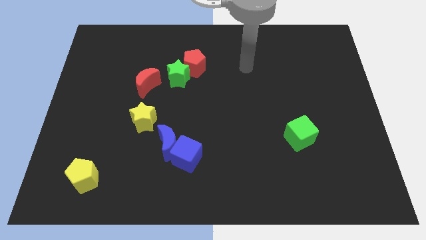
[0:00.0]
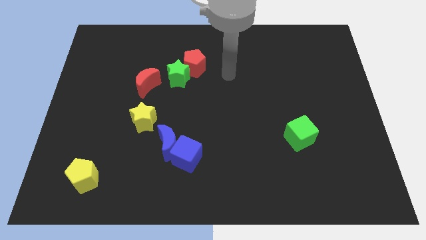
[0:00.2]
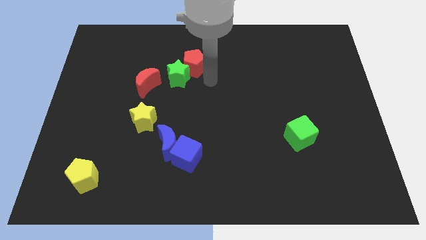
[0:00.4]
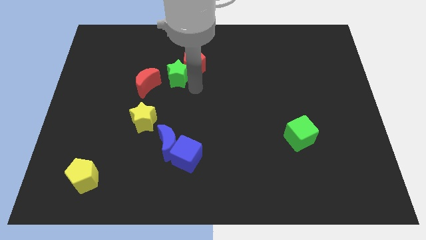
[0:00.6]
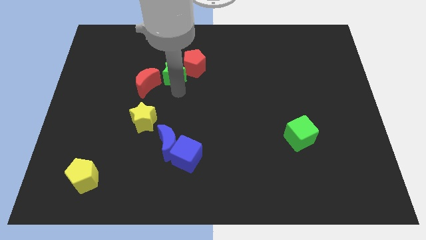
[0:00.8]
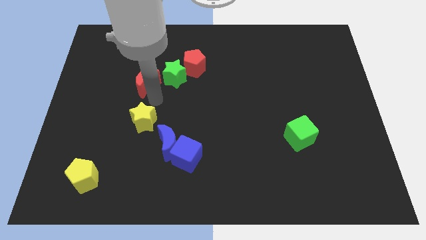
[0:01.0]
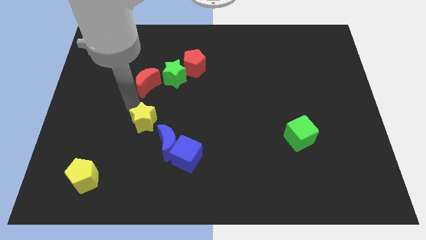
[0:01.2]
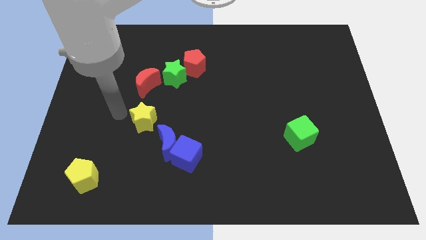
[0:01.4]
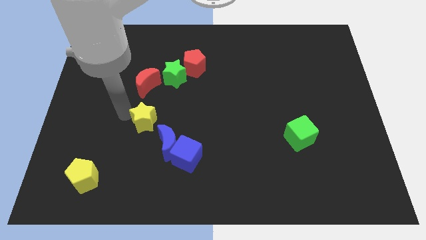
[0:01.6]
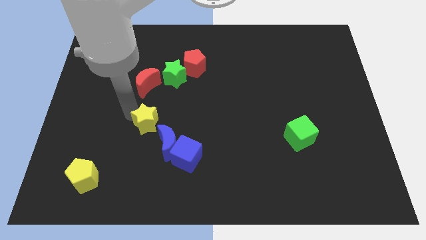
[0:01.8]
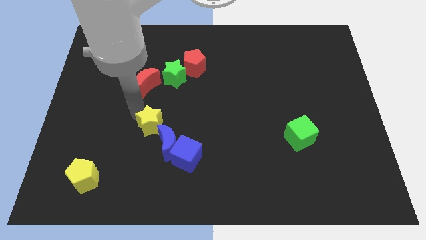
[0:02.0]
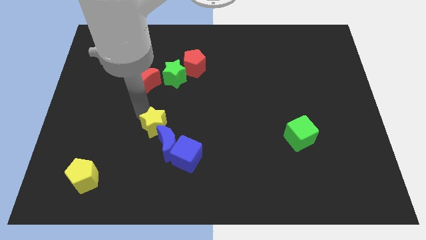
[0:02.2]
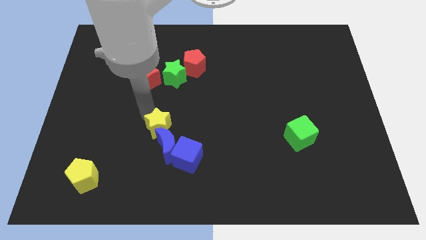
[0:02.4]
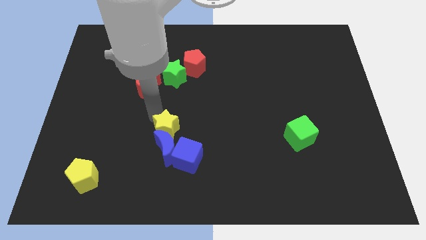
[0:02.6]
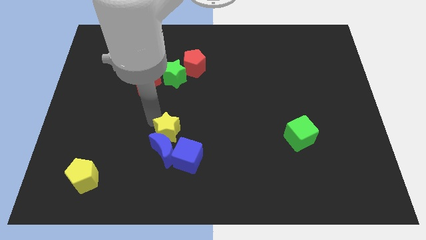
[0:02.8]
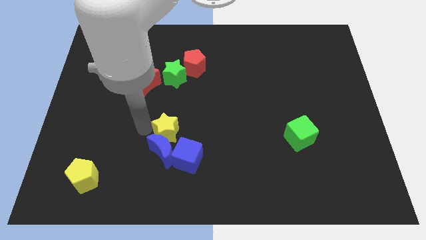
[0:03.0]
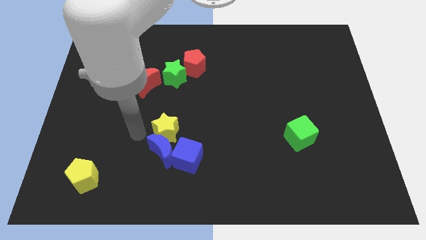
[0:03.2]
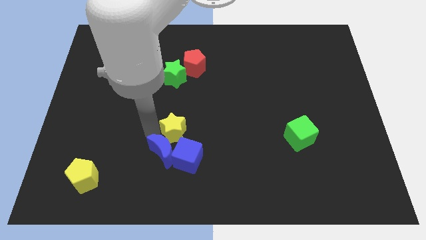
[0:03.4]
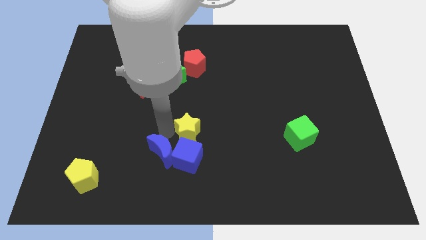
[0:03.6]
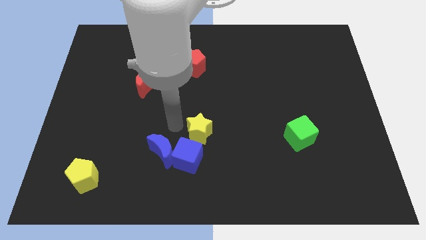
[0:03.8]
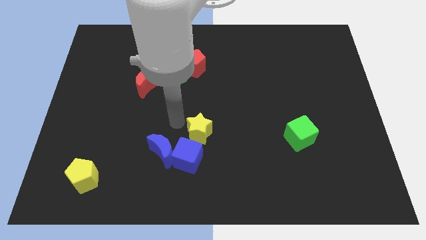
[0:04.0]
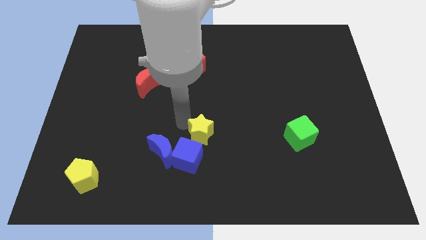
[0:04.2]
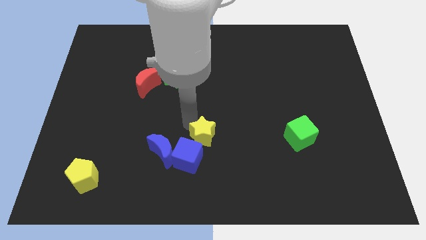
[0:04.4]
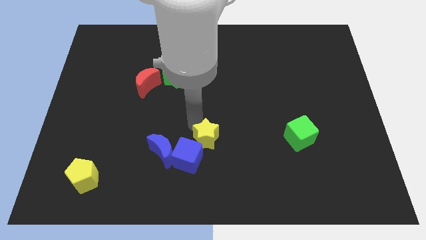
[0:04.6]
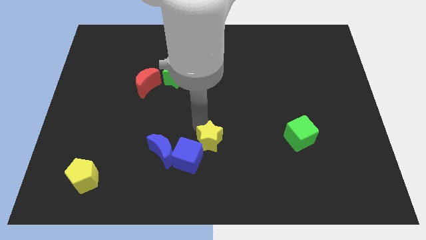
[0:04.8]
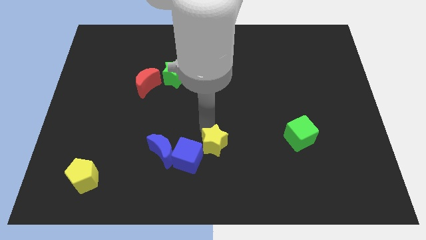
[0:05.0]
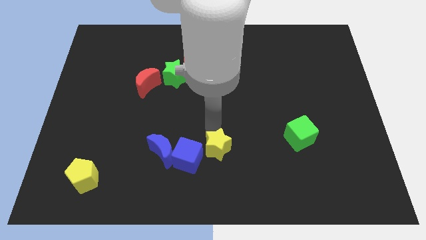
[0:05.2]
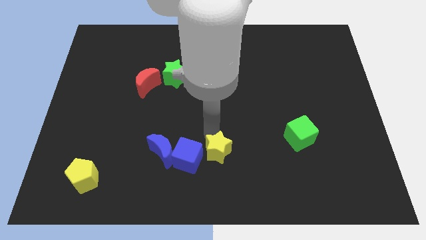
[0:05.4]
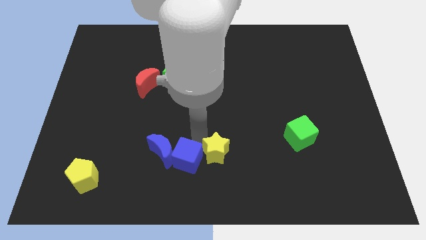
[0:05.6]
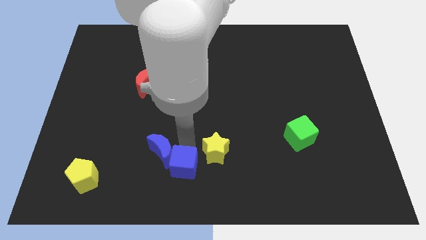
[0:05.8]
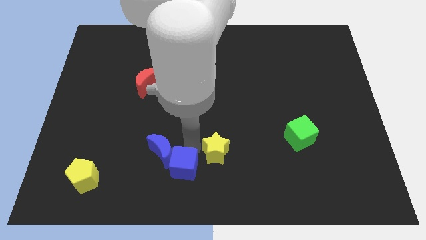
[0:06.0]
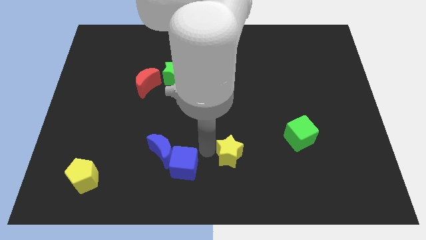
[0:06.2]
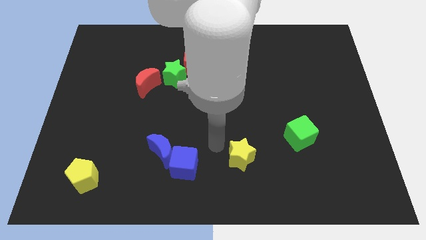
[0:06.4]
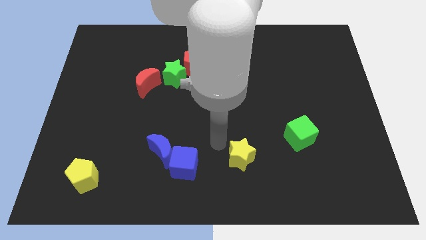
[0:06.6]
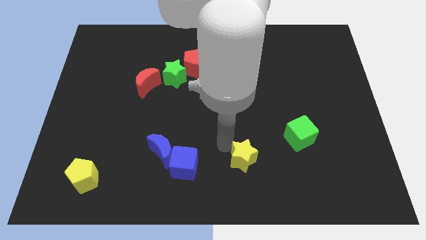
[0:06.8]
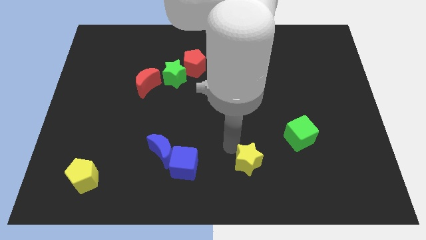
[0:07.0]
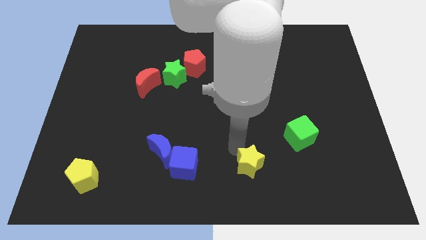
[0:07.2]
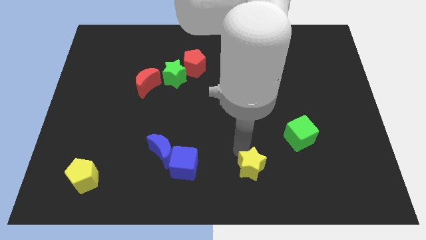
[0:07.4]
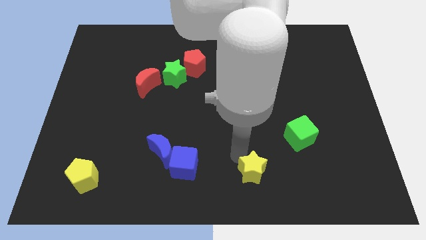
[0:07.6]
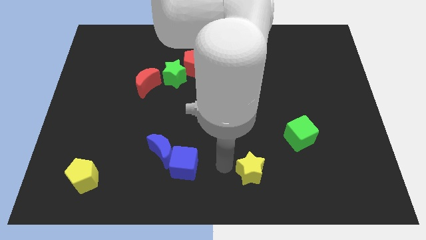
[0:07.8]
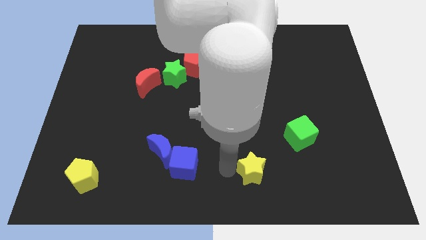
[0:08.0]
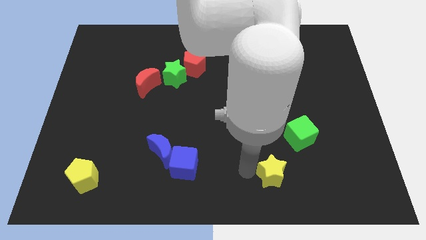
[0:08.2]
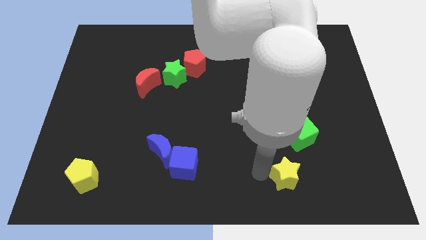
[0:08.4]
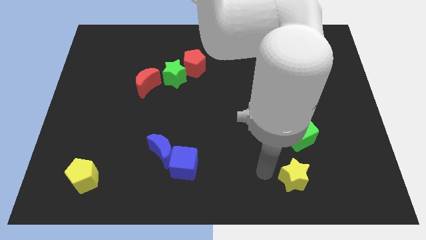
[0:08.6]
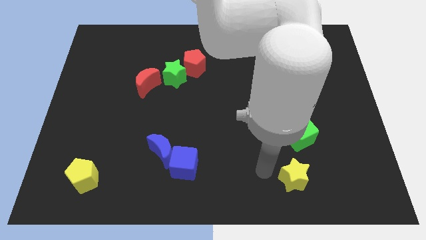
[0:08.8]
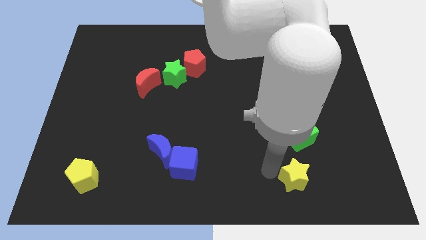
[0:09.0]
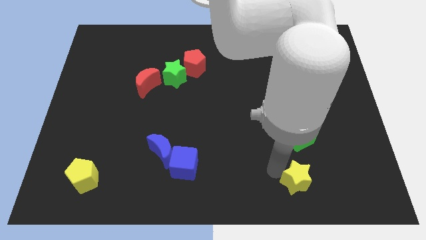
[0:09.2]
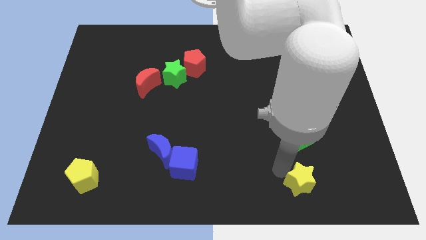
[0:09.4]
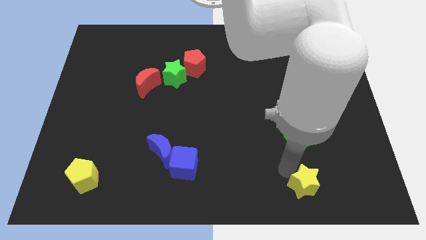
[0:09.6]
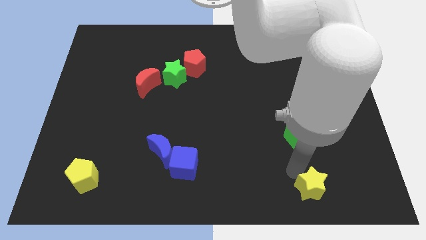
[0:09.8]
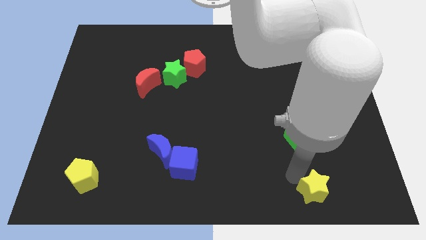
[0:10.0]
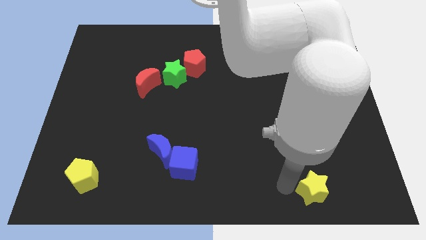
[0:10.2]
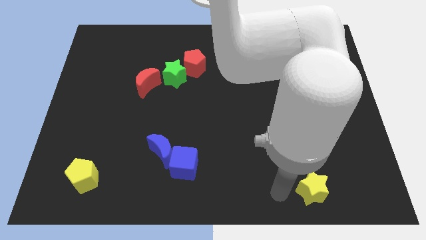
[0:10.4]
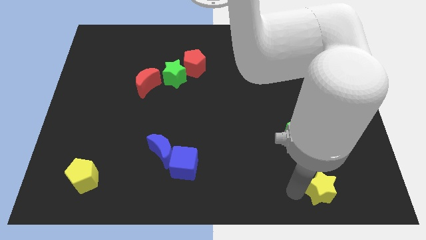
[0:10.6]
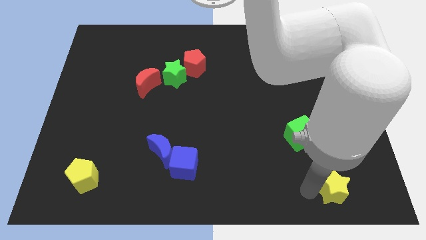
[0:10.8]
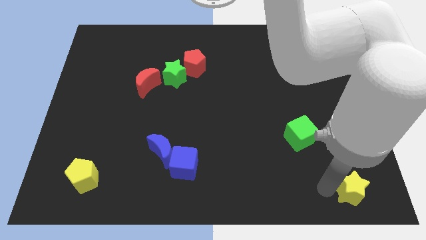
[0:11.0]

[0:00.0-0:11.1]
move the yellow star to the bottom right corner

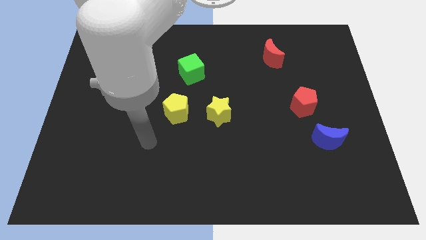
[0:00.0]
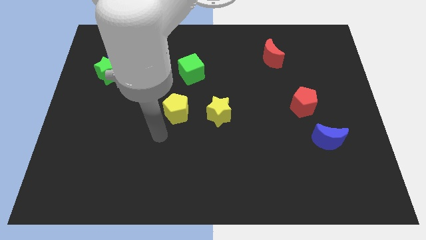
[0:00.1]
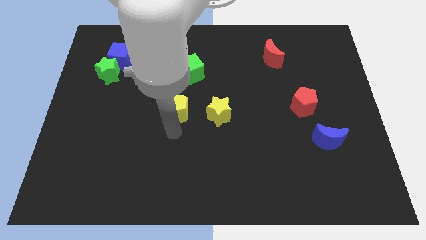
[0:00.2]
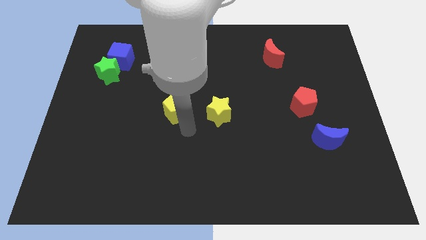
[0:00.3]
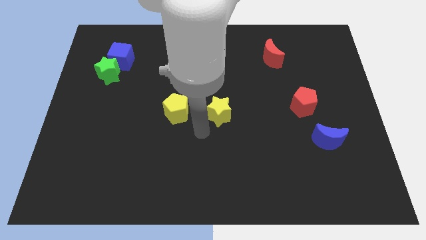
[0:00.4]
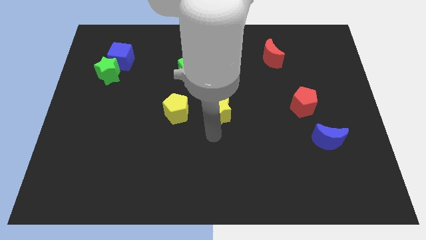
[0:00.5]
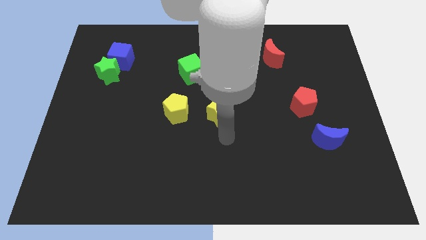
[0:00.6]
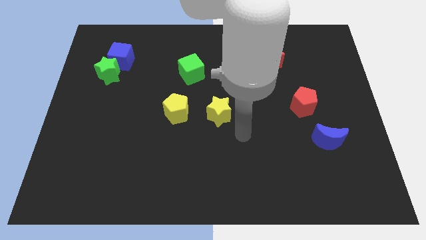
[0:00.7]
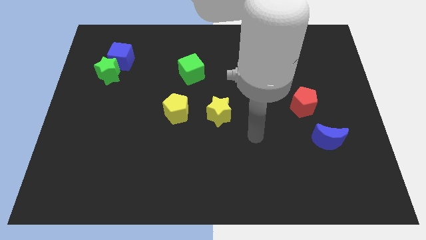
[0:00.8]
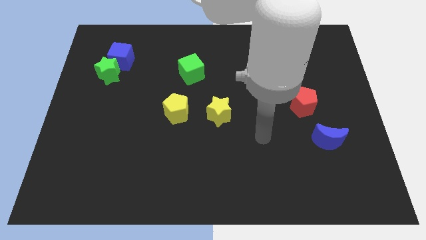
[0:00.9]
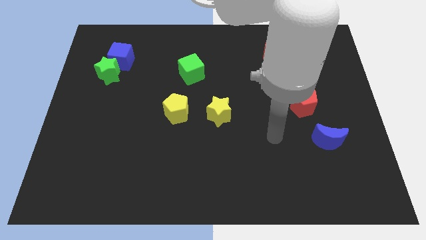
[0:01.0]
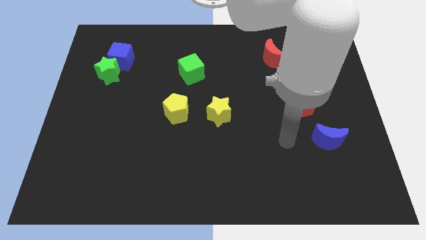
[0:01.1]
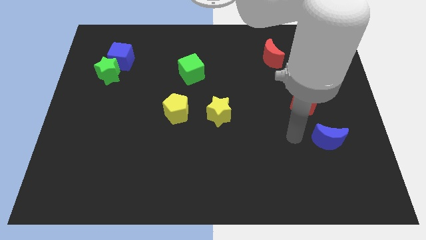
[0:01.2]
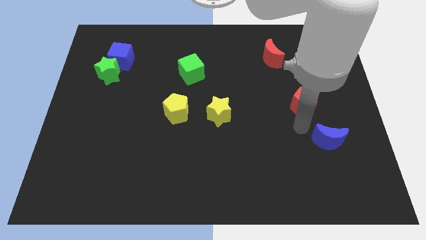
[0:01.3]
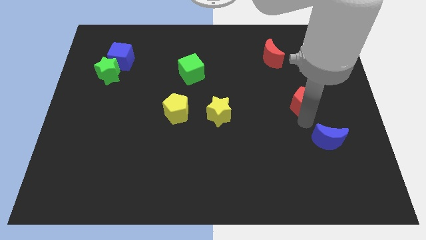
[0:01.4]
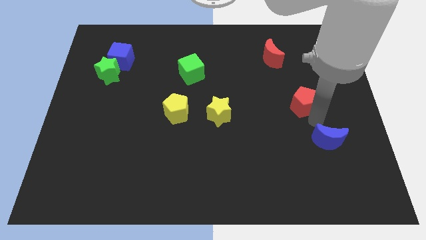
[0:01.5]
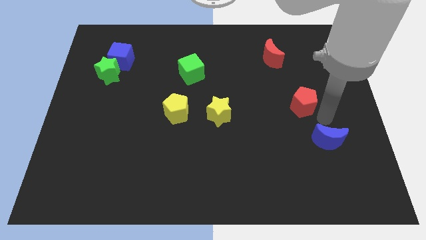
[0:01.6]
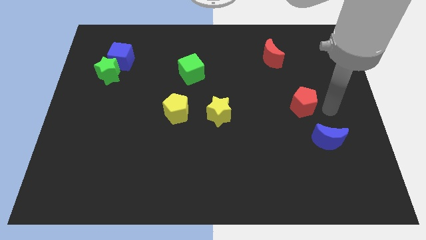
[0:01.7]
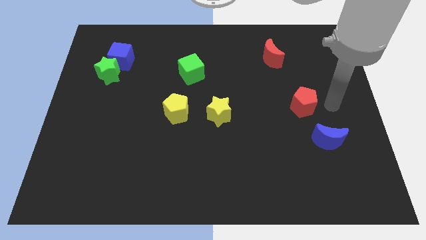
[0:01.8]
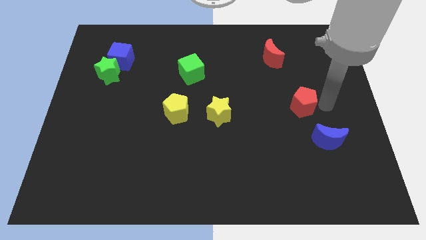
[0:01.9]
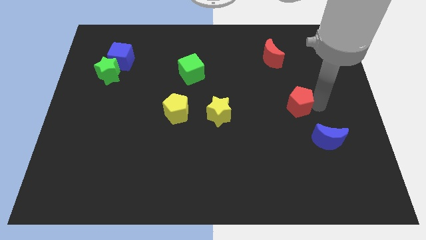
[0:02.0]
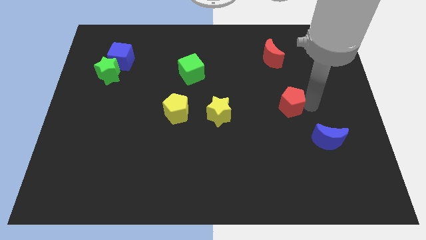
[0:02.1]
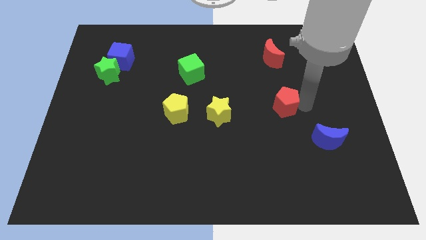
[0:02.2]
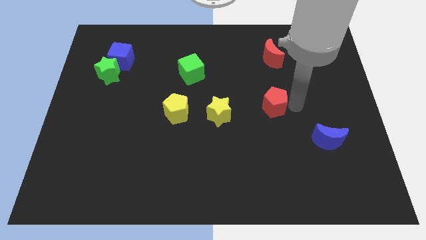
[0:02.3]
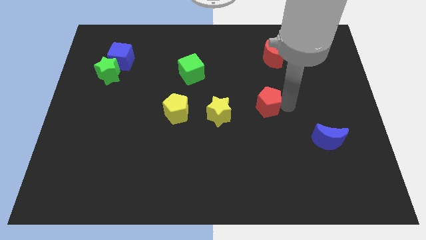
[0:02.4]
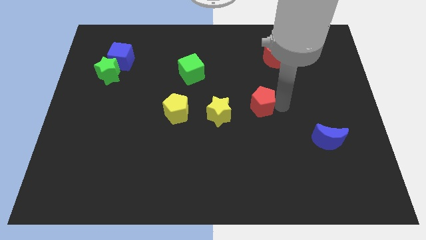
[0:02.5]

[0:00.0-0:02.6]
slide the red pentagon to the center

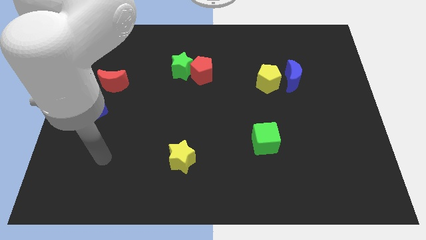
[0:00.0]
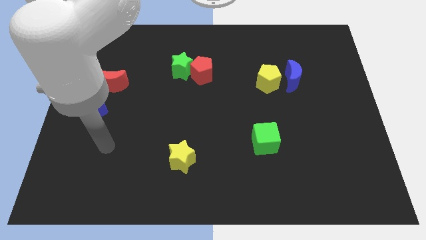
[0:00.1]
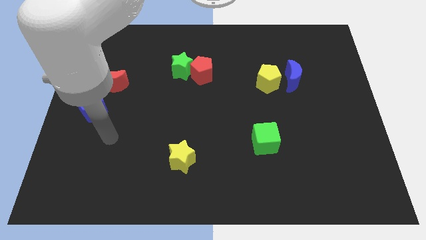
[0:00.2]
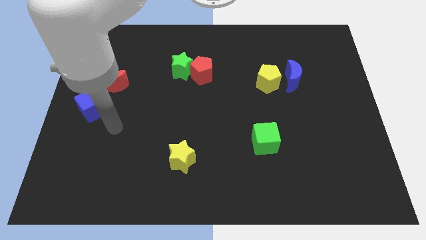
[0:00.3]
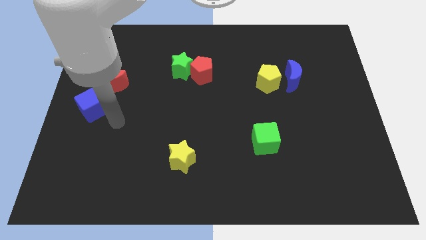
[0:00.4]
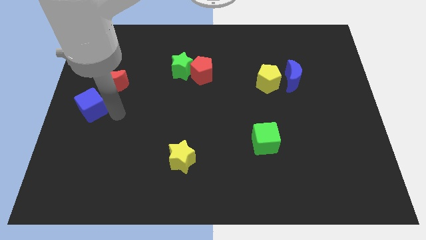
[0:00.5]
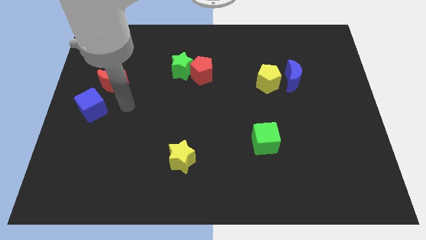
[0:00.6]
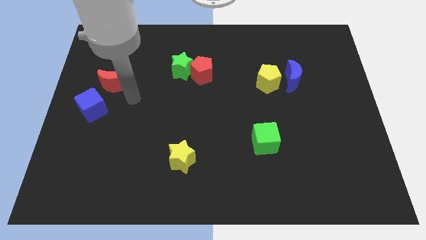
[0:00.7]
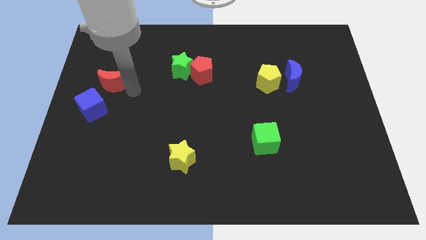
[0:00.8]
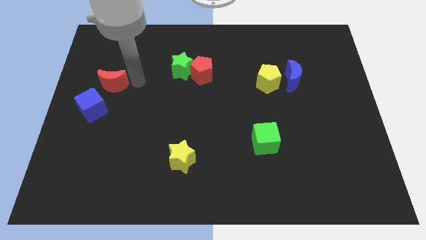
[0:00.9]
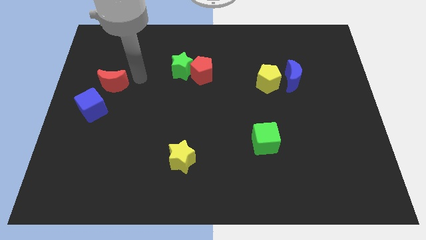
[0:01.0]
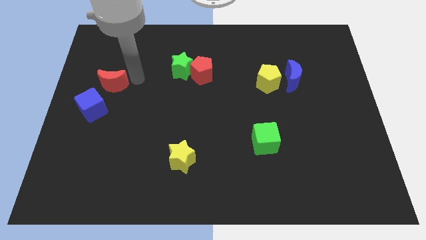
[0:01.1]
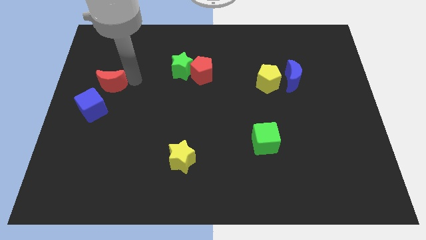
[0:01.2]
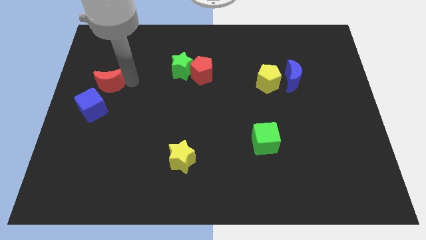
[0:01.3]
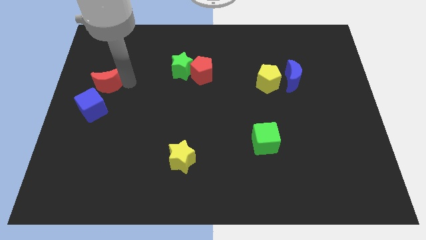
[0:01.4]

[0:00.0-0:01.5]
slide the red moon to the center left
